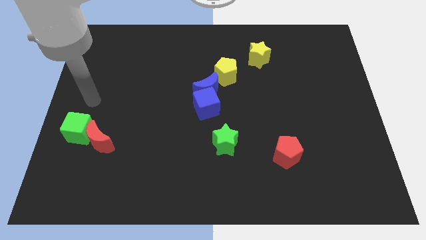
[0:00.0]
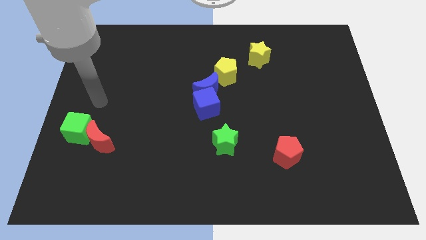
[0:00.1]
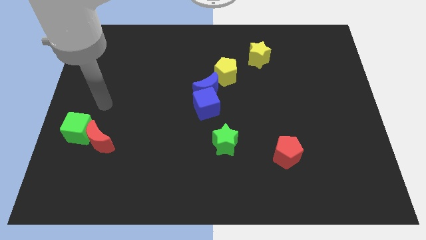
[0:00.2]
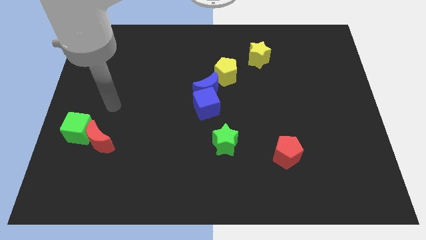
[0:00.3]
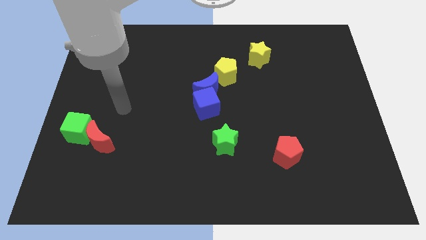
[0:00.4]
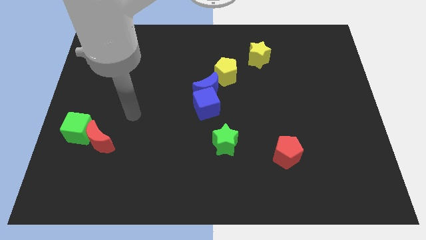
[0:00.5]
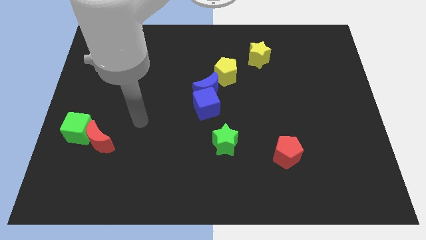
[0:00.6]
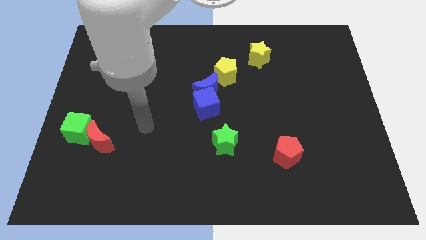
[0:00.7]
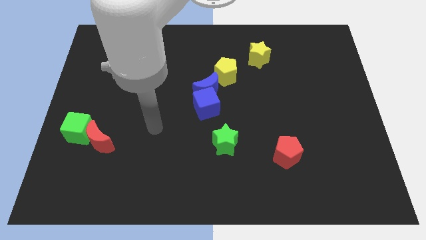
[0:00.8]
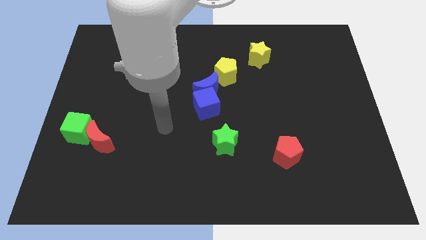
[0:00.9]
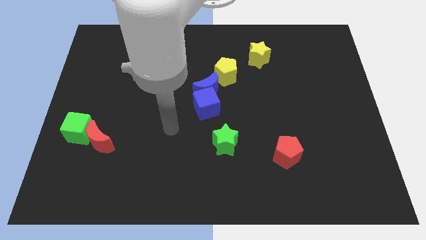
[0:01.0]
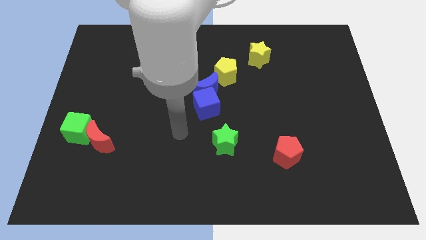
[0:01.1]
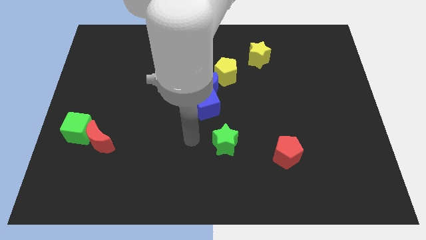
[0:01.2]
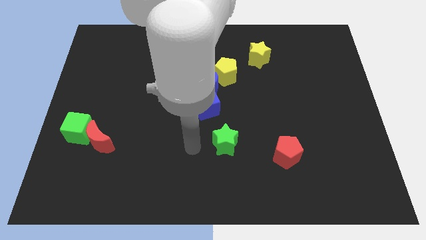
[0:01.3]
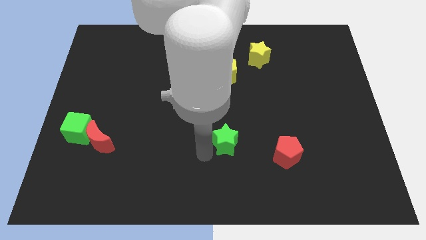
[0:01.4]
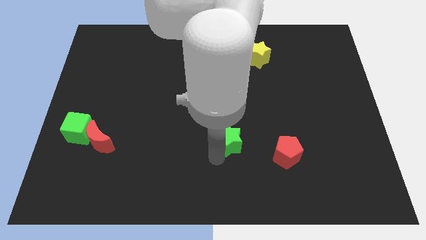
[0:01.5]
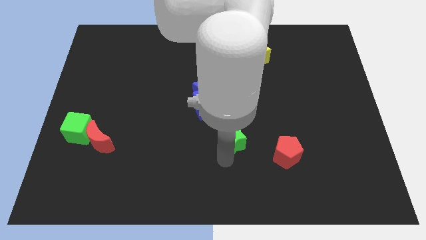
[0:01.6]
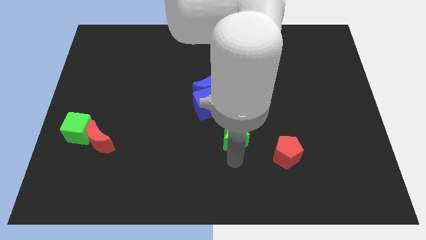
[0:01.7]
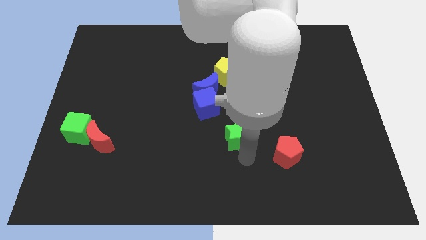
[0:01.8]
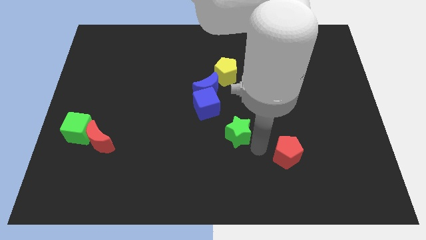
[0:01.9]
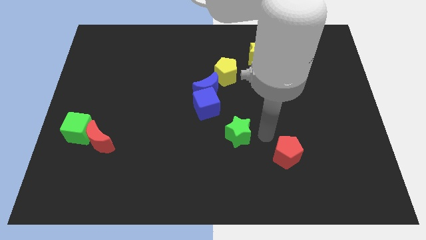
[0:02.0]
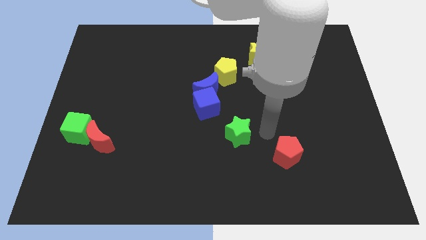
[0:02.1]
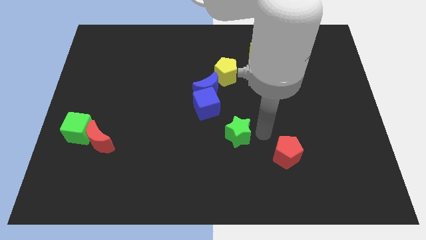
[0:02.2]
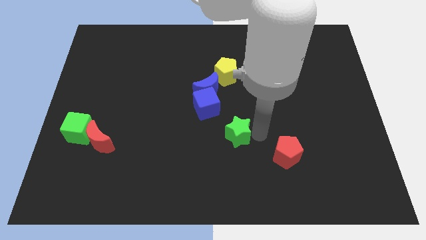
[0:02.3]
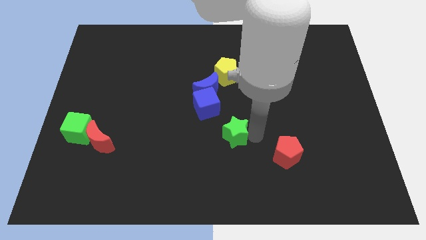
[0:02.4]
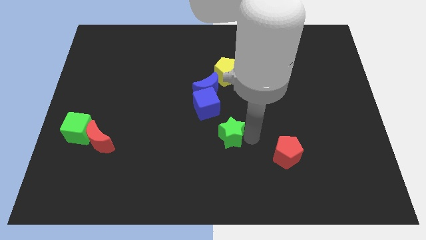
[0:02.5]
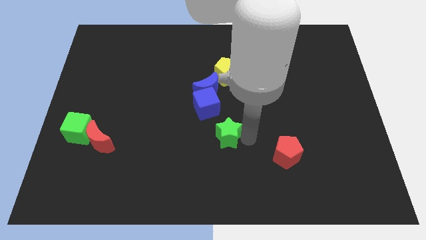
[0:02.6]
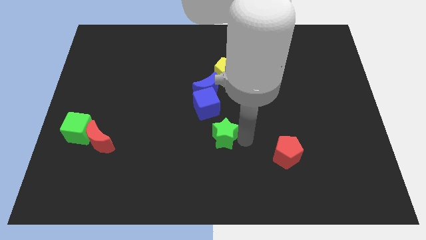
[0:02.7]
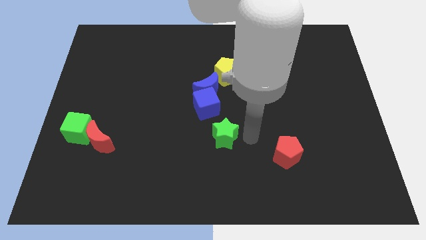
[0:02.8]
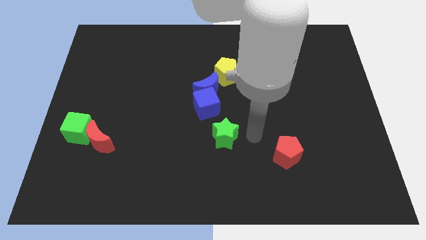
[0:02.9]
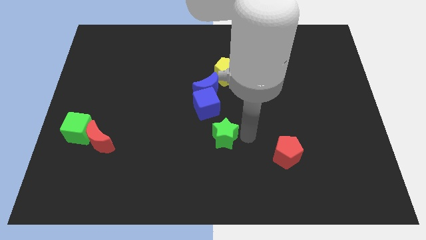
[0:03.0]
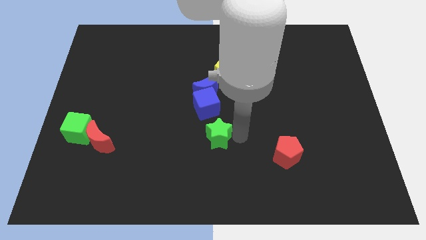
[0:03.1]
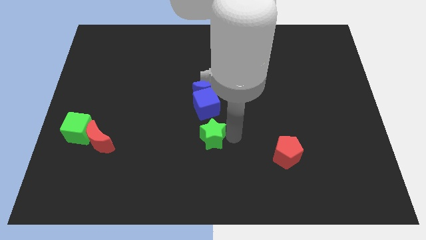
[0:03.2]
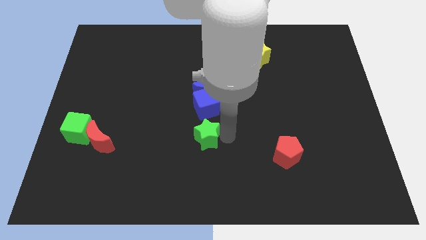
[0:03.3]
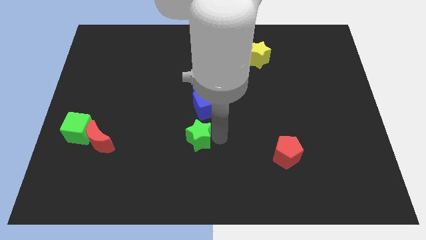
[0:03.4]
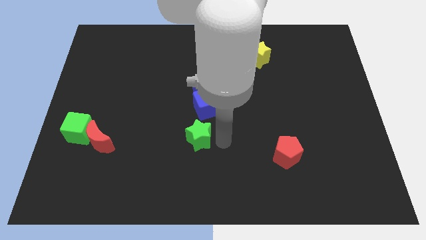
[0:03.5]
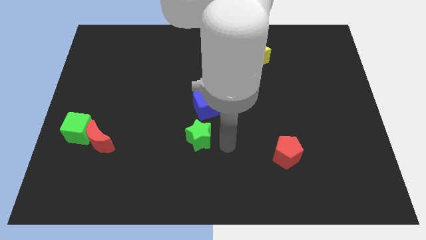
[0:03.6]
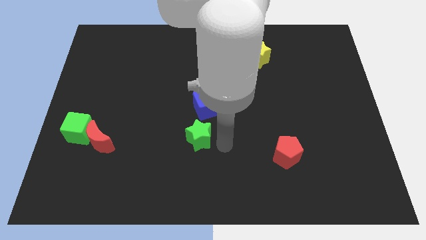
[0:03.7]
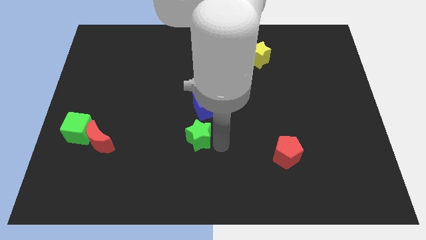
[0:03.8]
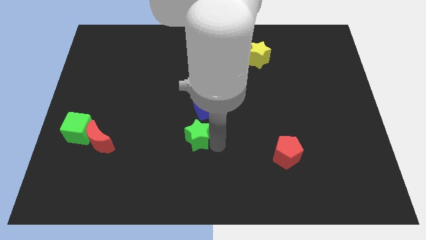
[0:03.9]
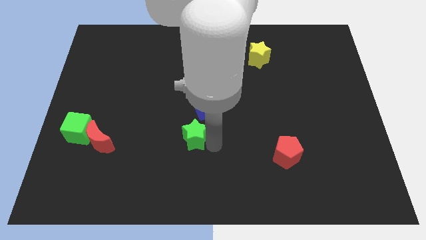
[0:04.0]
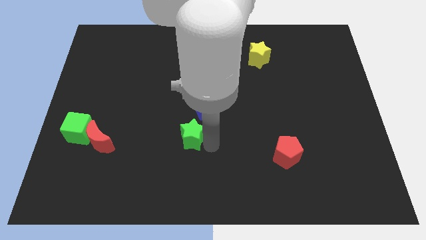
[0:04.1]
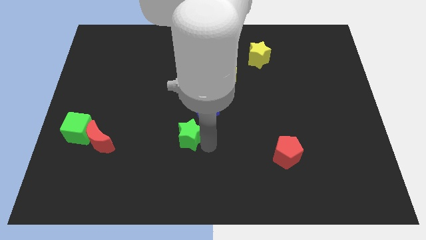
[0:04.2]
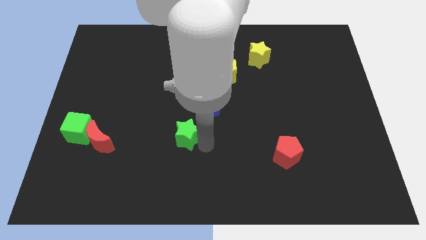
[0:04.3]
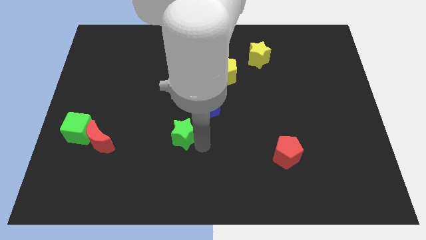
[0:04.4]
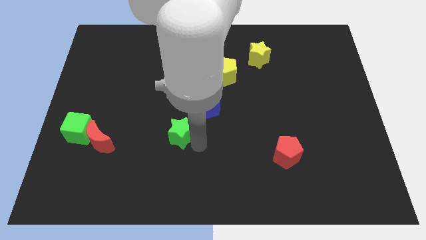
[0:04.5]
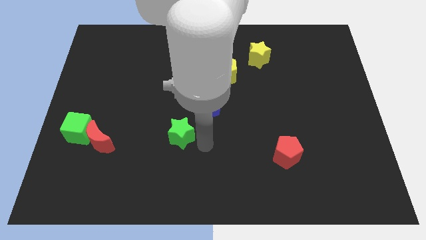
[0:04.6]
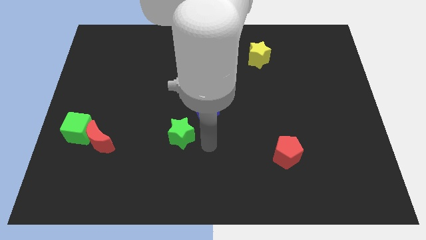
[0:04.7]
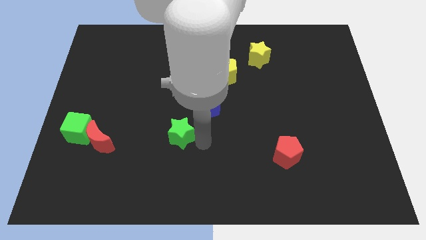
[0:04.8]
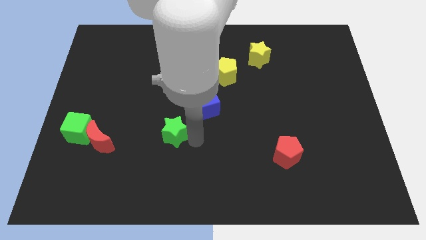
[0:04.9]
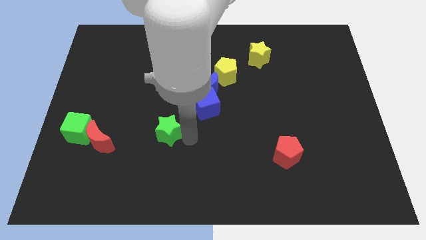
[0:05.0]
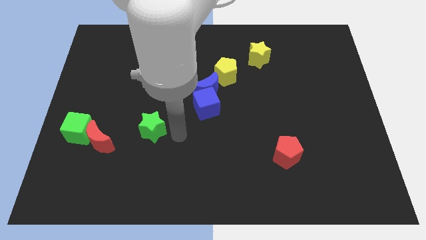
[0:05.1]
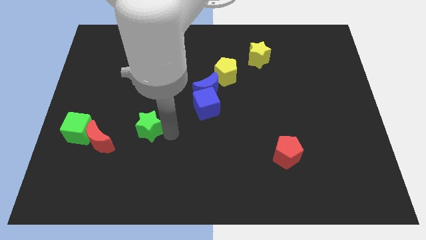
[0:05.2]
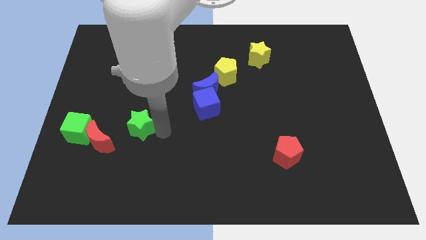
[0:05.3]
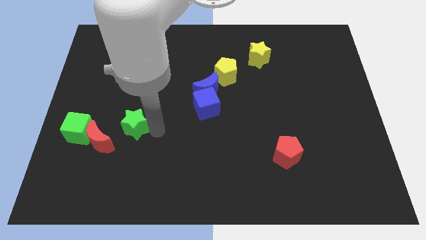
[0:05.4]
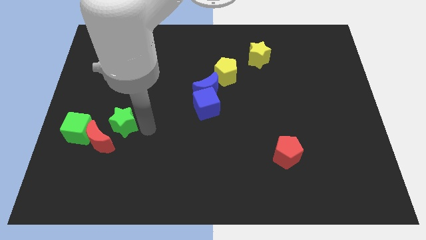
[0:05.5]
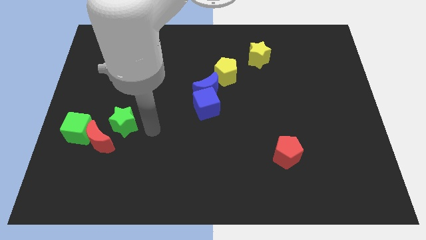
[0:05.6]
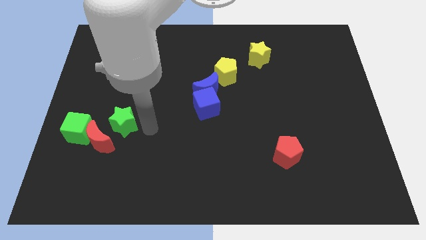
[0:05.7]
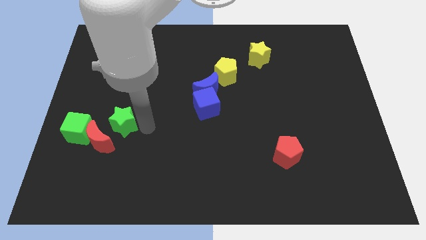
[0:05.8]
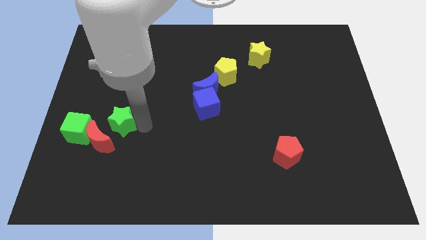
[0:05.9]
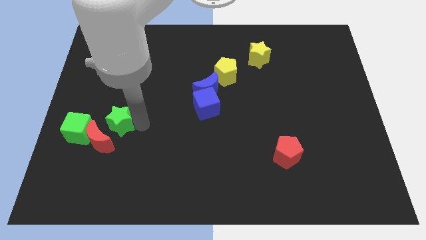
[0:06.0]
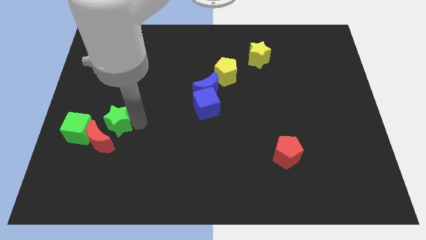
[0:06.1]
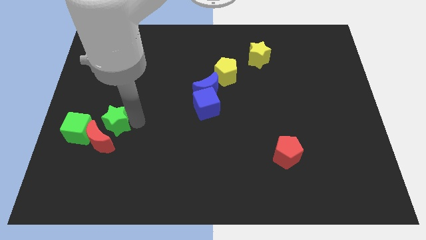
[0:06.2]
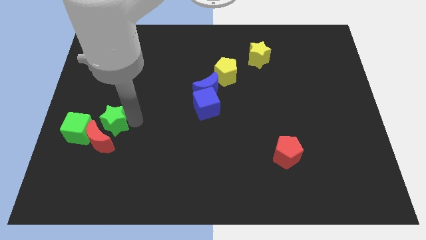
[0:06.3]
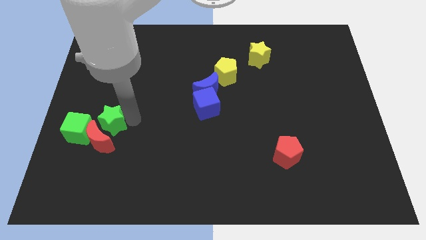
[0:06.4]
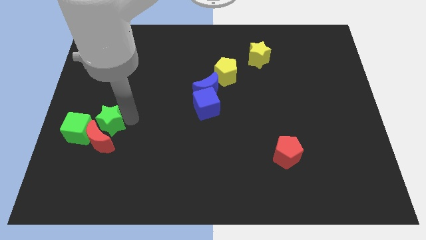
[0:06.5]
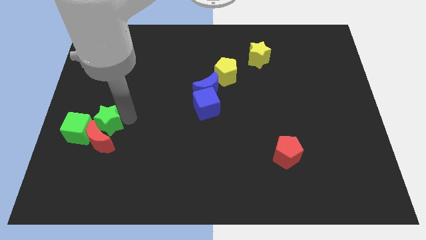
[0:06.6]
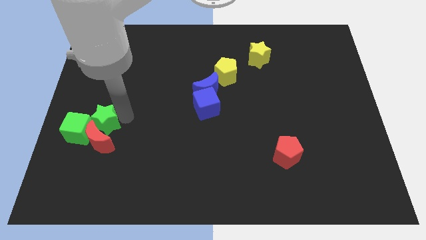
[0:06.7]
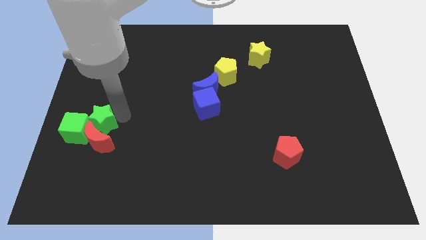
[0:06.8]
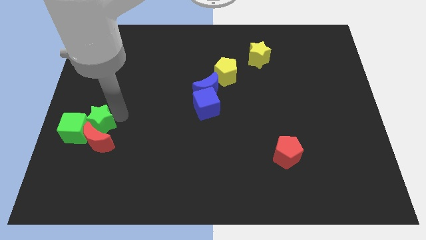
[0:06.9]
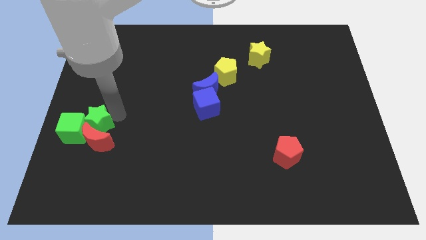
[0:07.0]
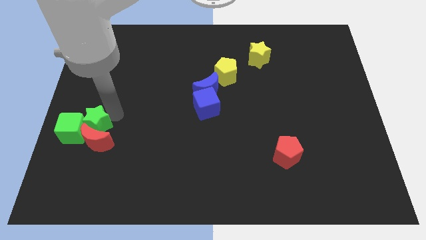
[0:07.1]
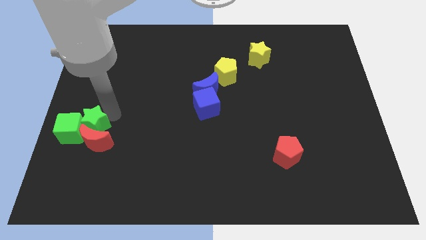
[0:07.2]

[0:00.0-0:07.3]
slide the green star to the left side of the board
